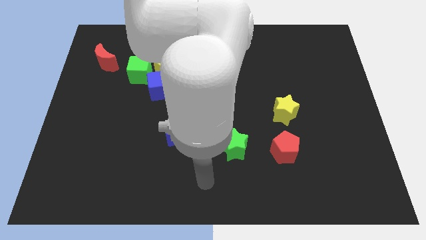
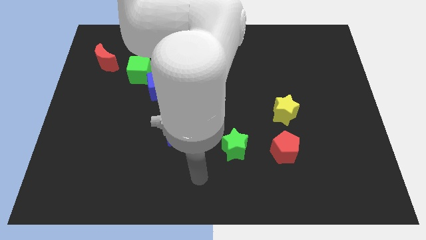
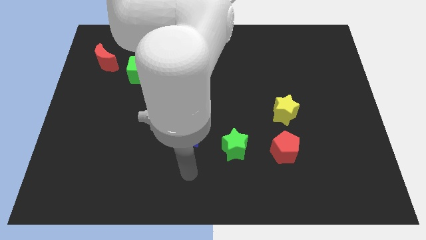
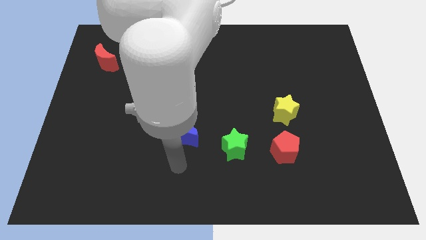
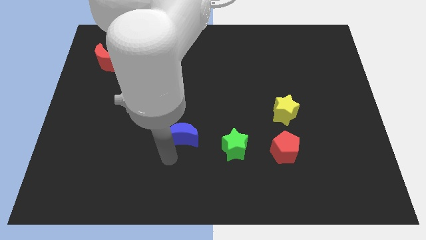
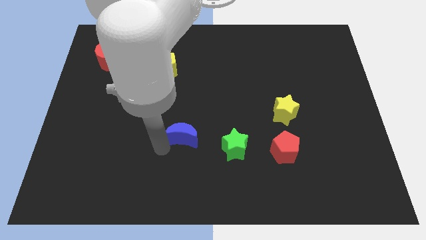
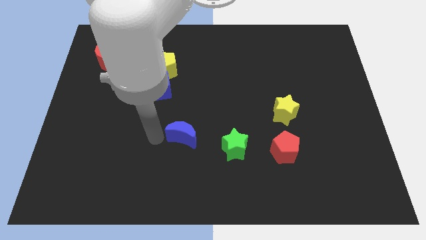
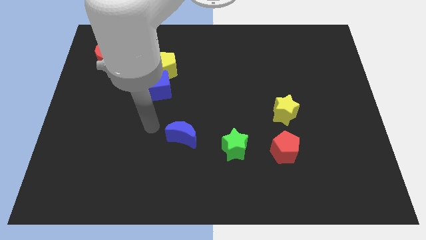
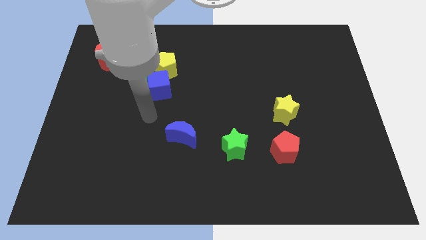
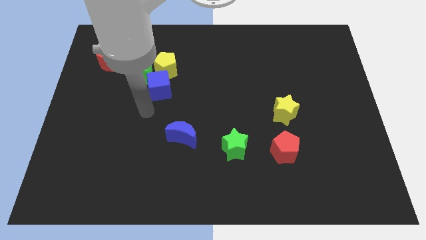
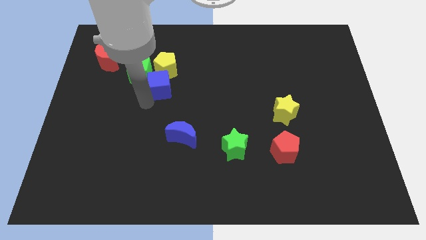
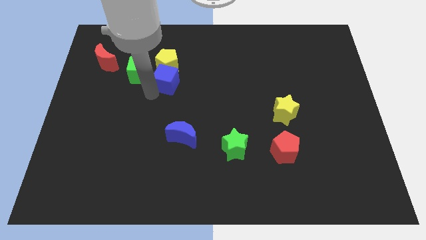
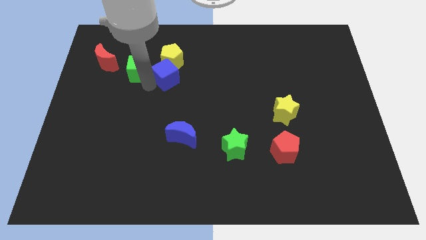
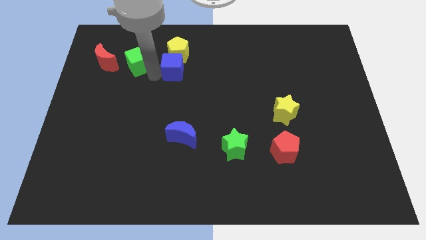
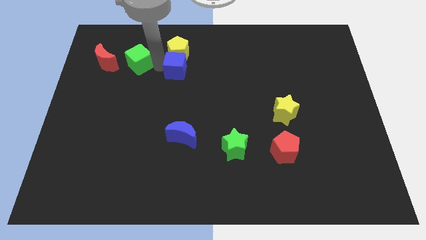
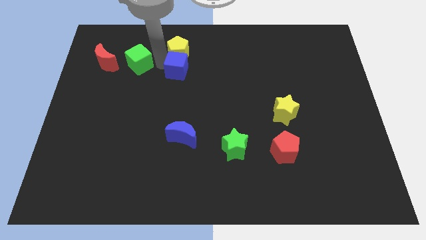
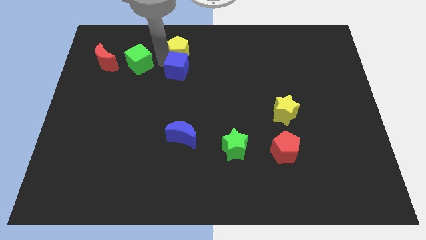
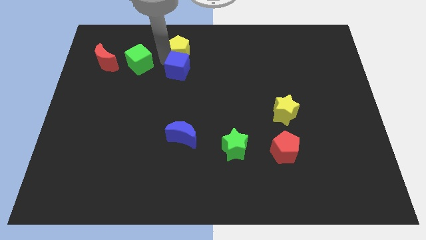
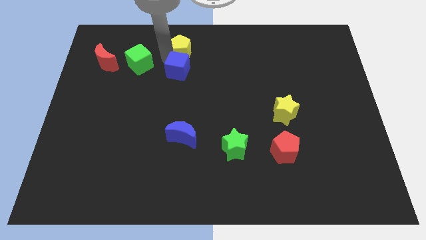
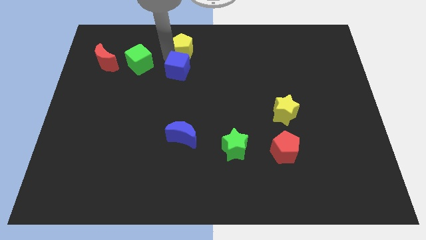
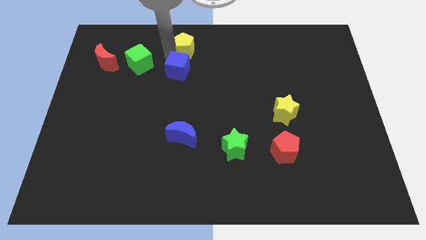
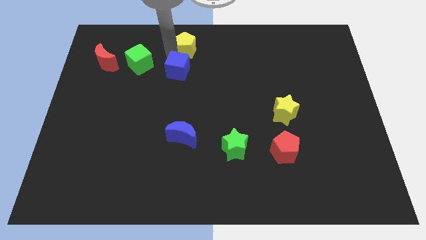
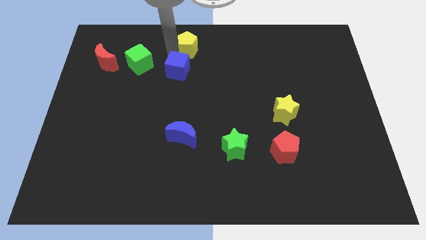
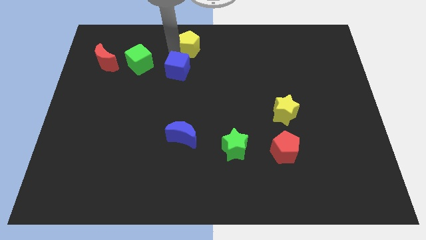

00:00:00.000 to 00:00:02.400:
pull the yellow pentagon apart from the blue cube and green cube

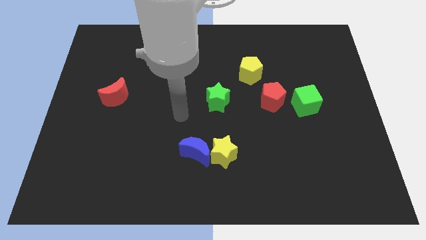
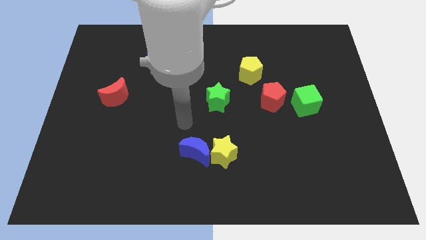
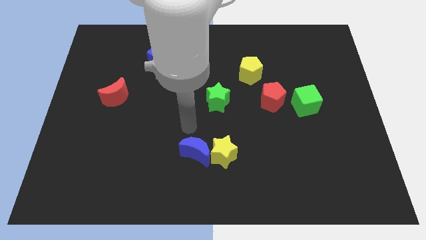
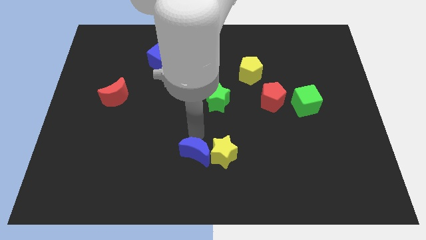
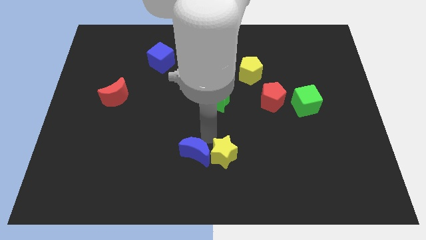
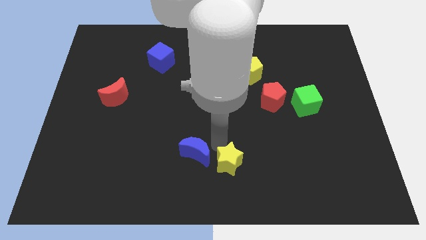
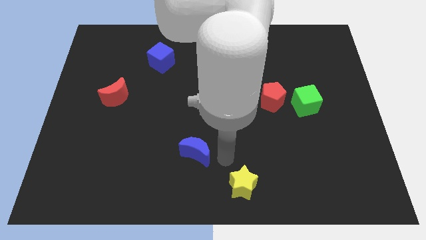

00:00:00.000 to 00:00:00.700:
separate the blue moon from the yellow star

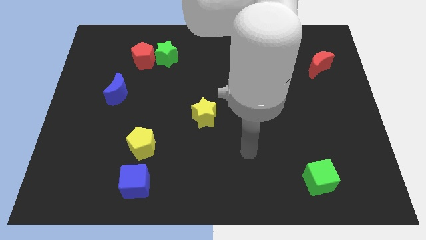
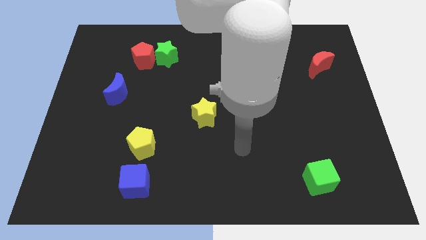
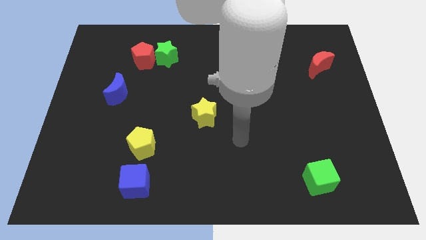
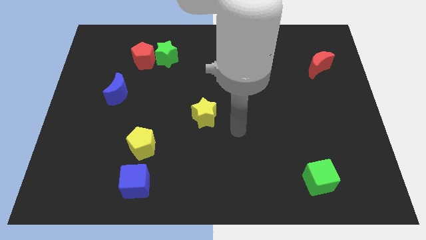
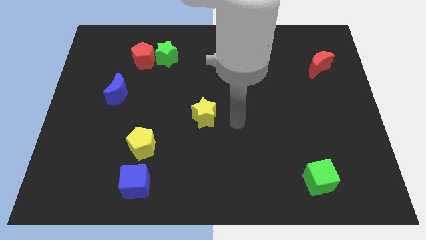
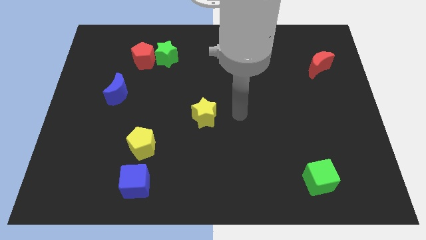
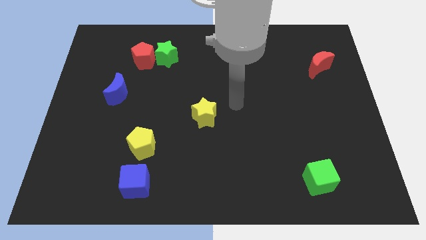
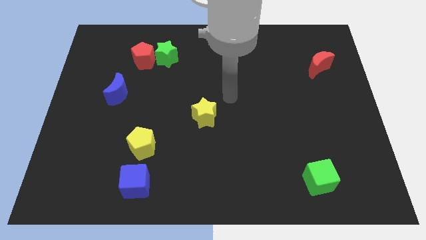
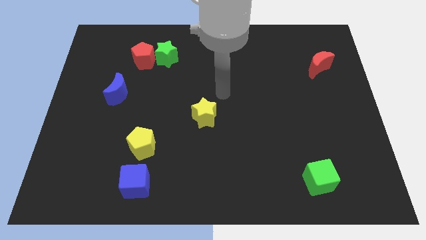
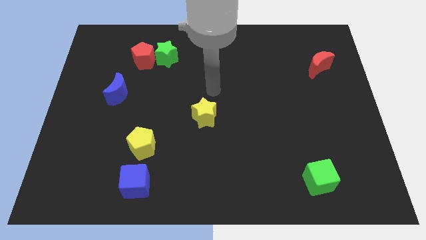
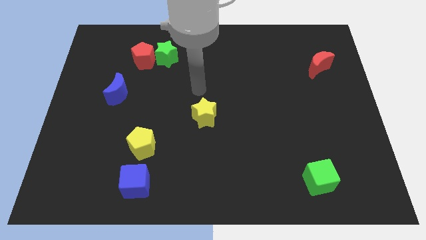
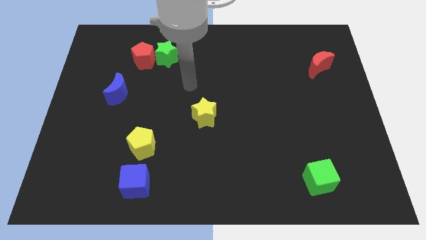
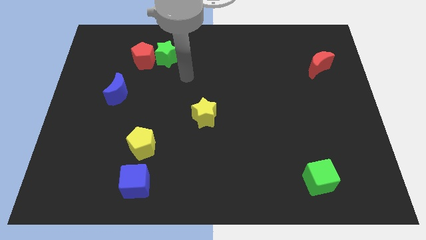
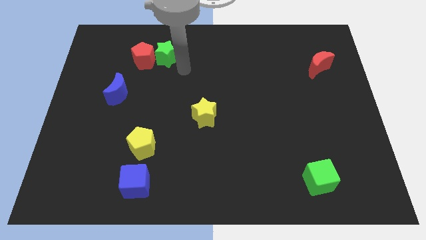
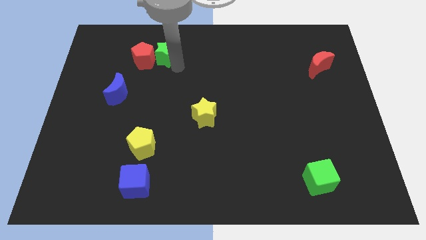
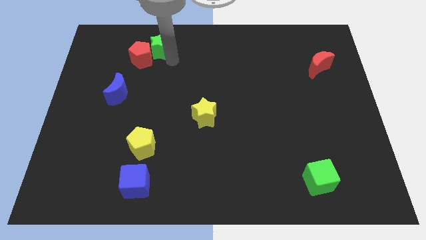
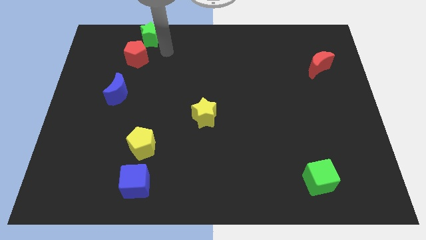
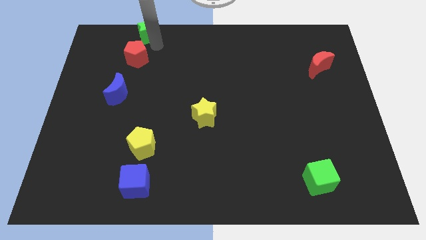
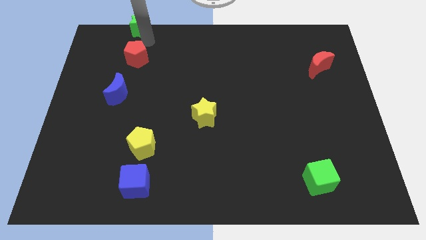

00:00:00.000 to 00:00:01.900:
pull the red pentagon apart from the green star

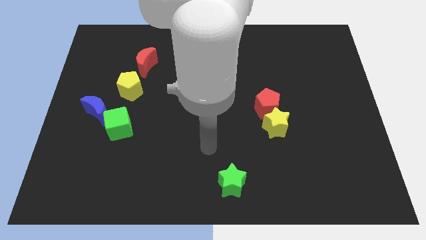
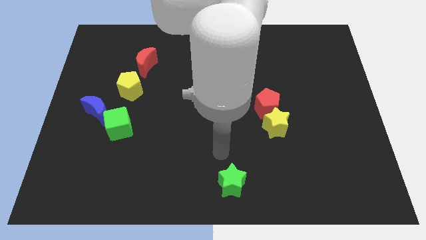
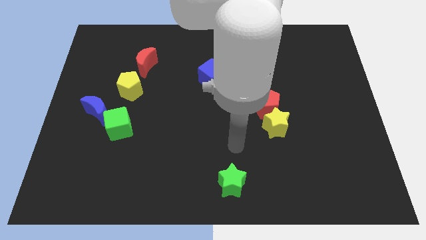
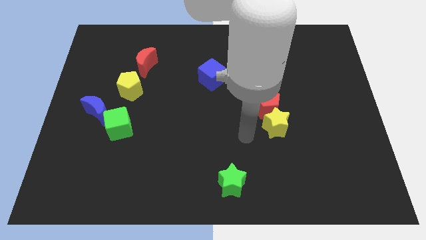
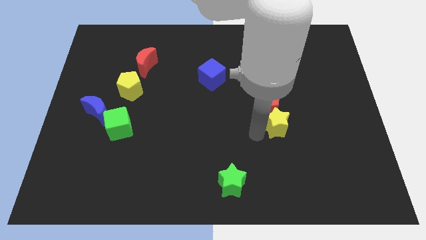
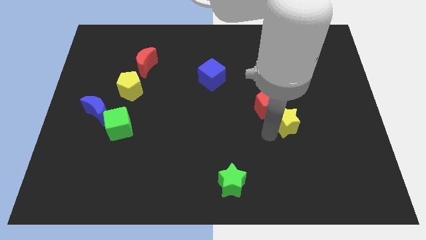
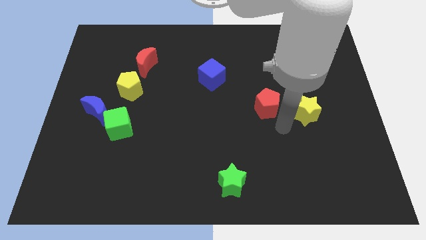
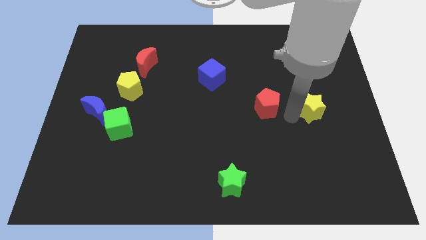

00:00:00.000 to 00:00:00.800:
move the red pentagon away from the yellow star

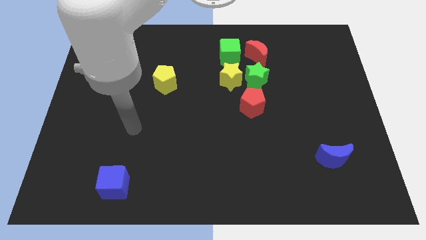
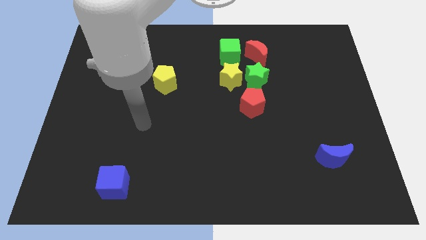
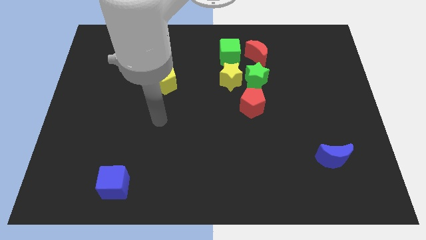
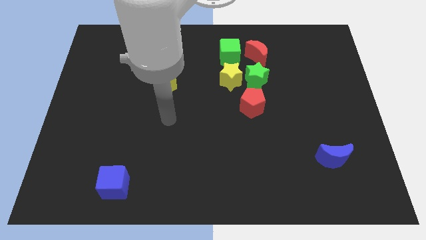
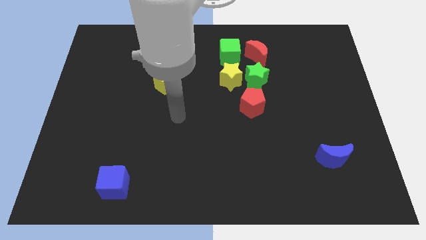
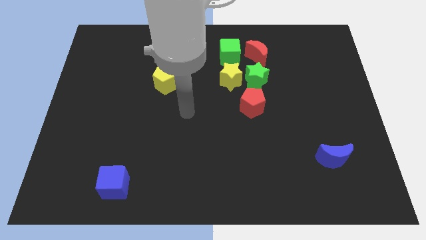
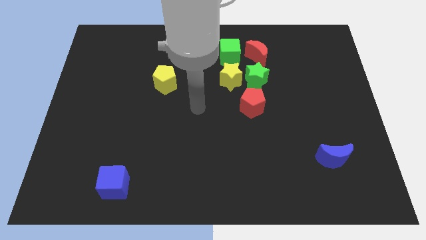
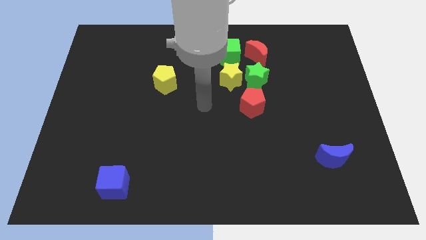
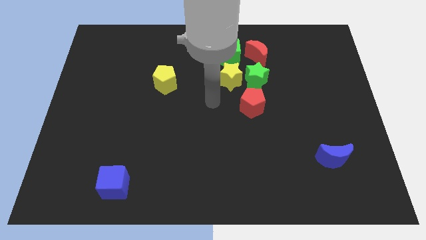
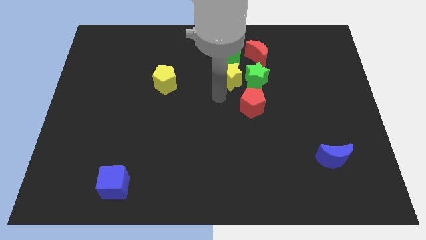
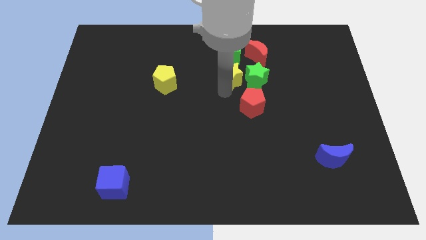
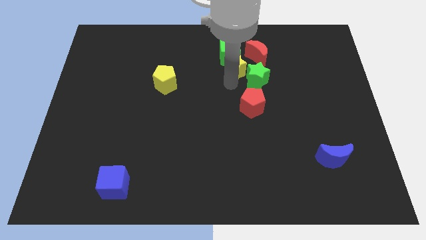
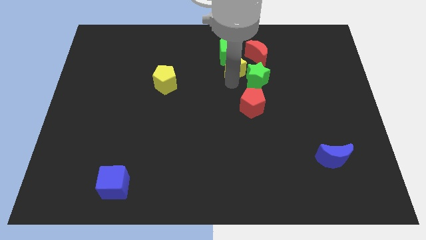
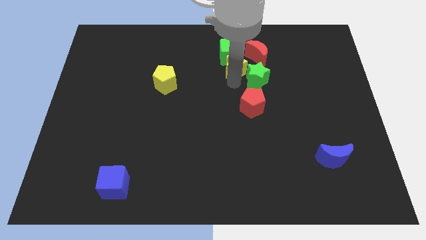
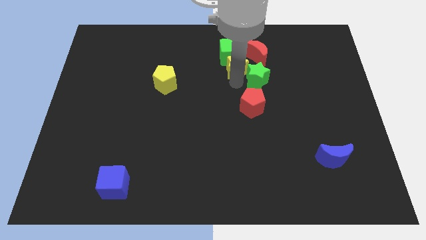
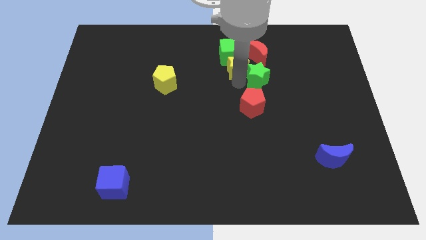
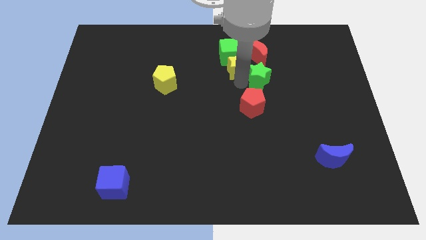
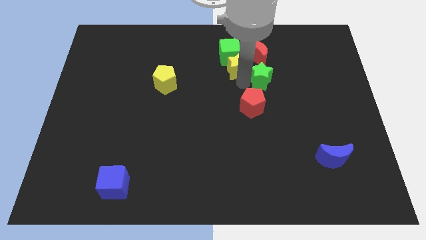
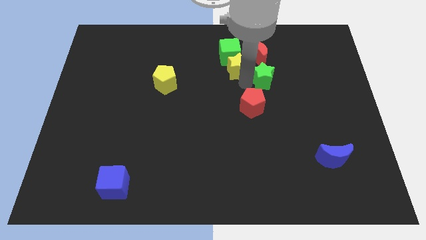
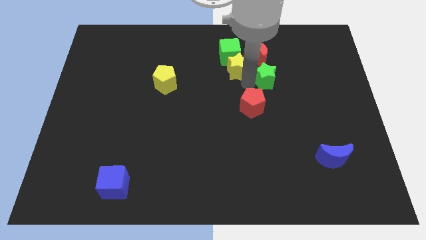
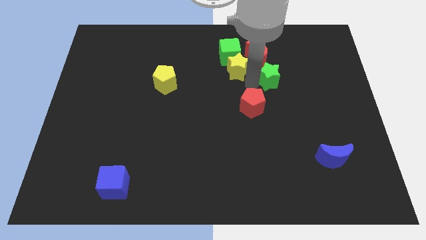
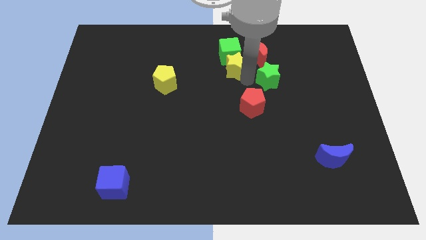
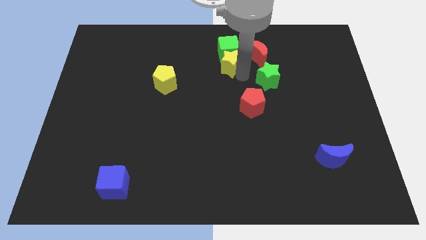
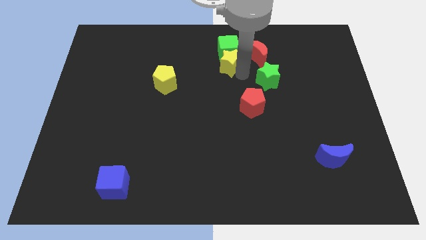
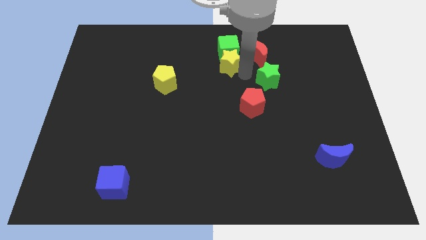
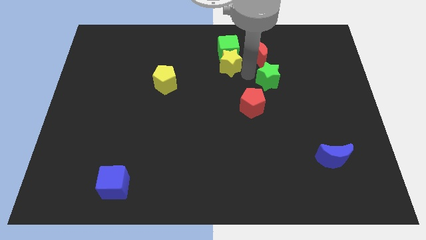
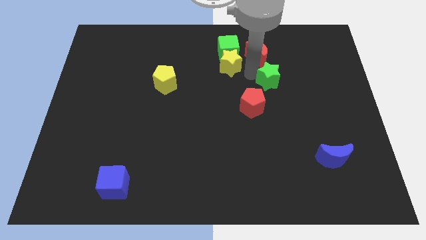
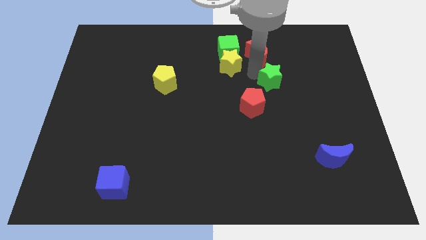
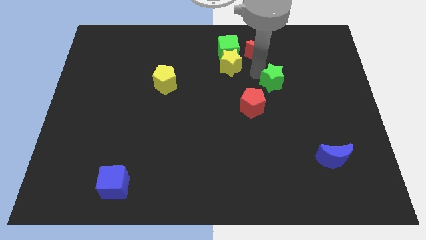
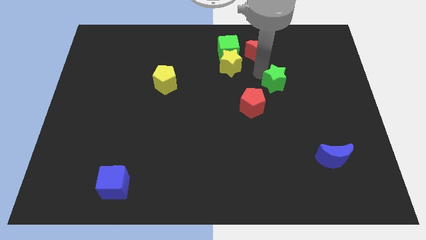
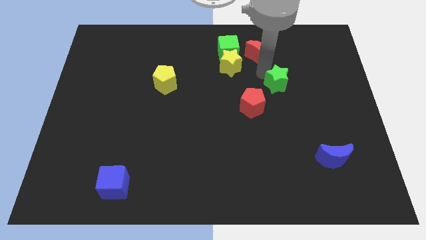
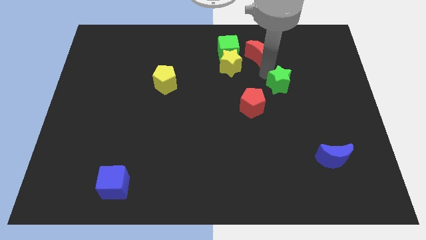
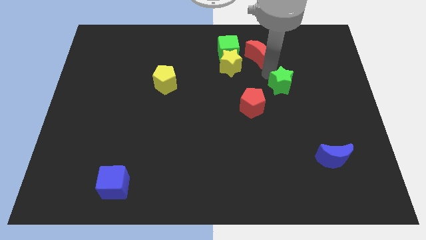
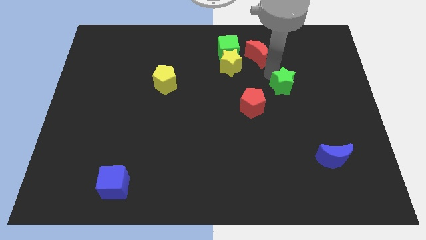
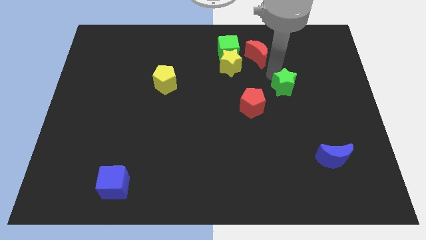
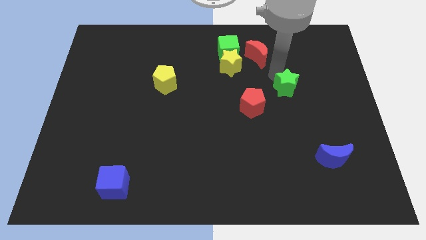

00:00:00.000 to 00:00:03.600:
separate the green star from the group of blocks
